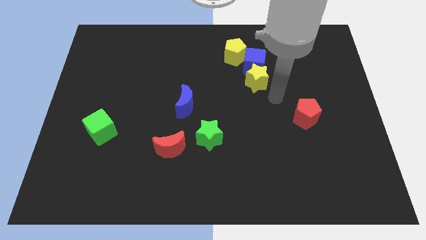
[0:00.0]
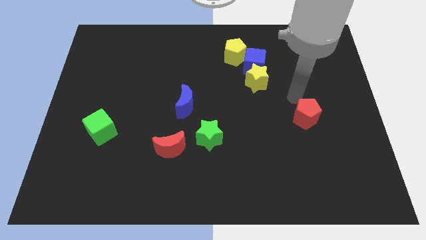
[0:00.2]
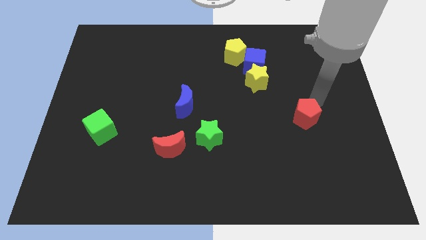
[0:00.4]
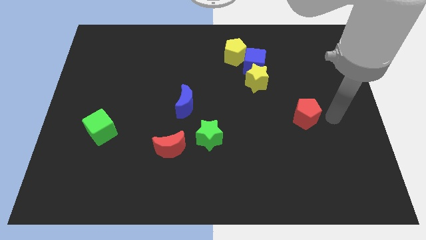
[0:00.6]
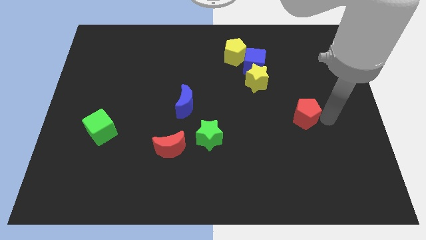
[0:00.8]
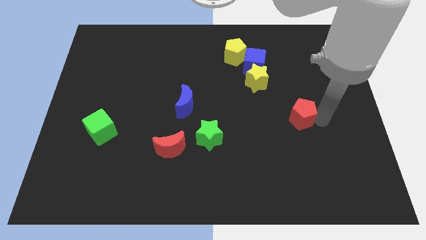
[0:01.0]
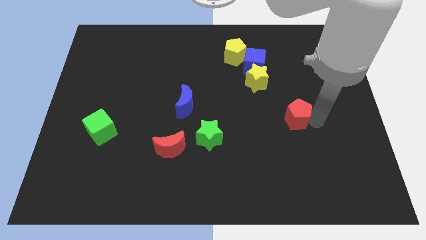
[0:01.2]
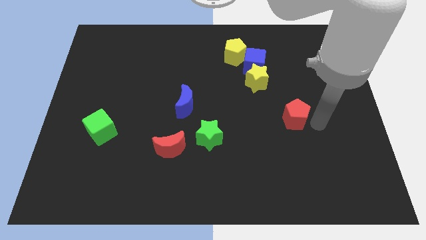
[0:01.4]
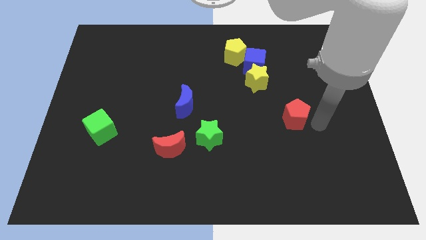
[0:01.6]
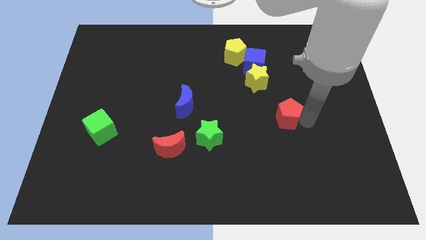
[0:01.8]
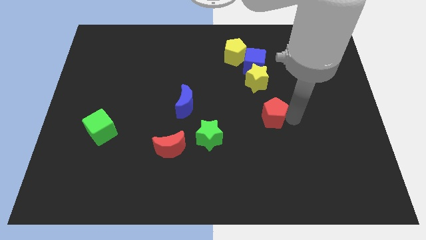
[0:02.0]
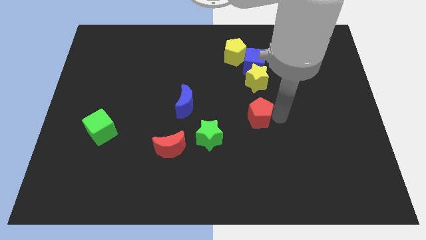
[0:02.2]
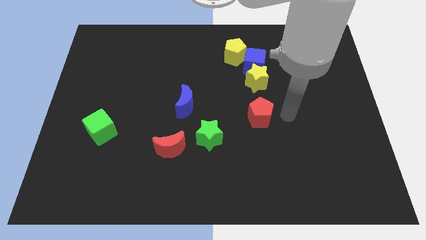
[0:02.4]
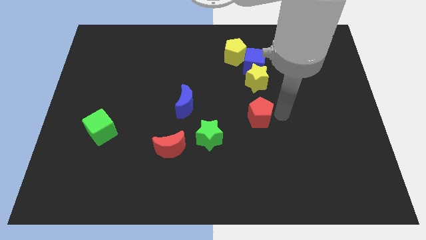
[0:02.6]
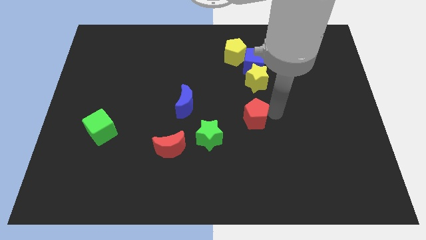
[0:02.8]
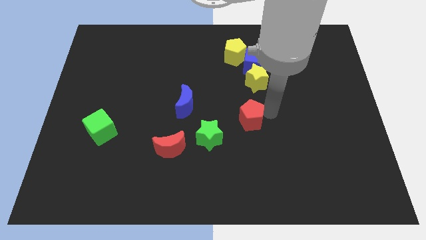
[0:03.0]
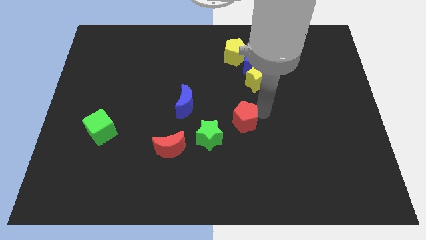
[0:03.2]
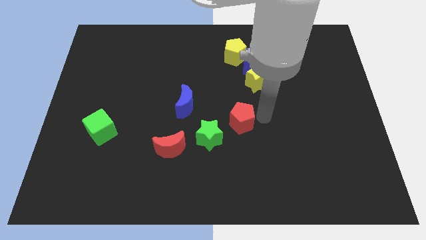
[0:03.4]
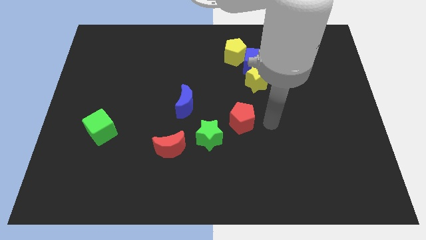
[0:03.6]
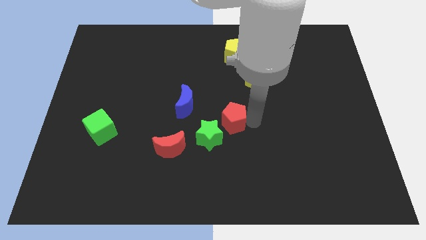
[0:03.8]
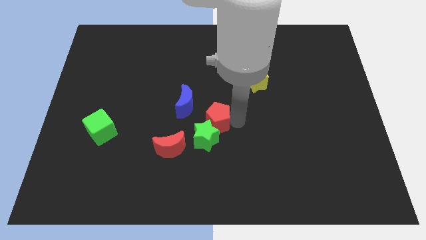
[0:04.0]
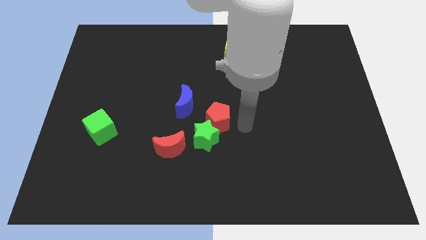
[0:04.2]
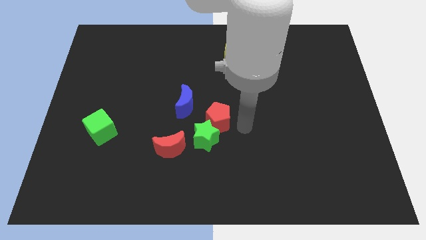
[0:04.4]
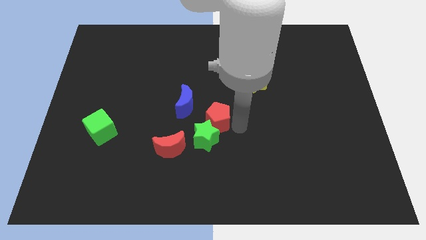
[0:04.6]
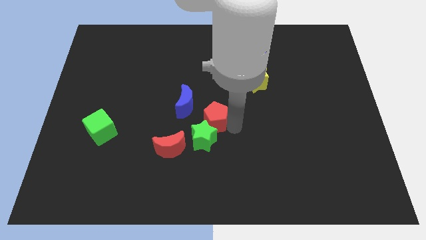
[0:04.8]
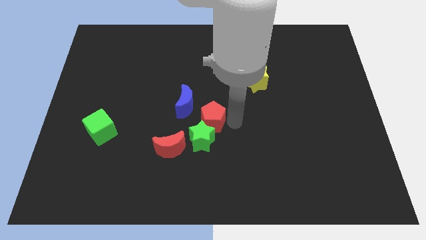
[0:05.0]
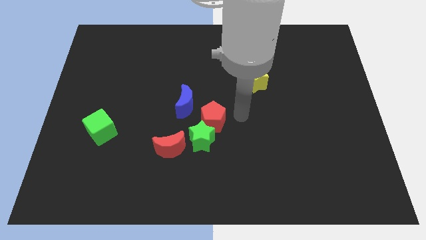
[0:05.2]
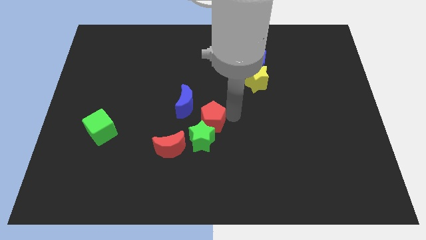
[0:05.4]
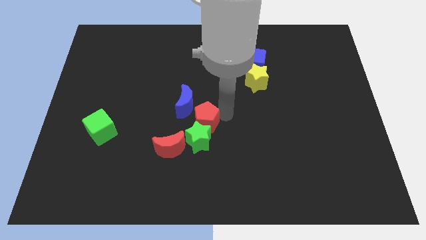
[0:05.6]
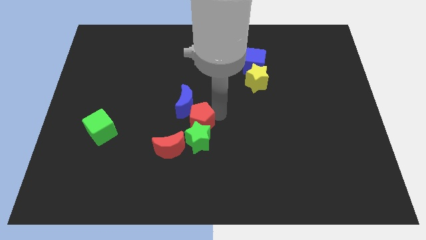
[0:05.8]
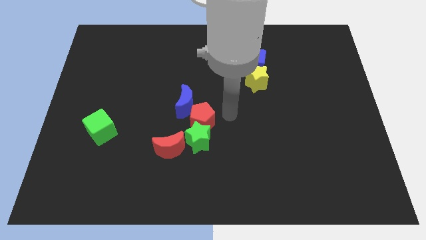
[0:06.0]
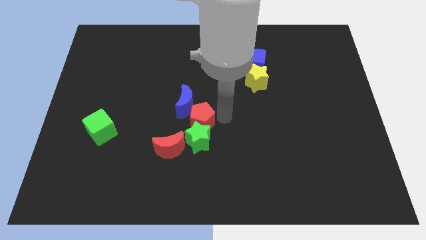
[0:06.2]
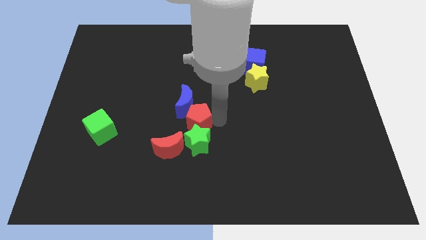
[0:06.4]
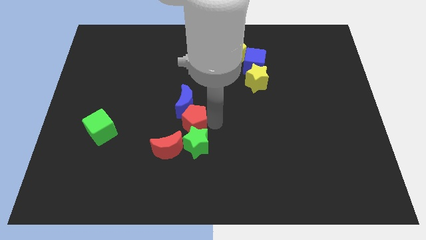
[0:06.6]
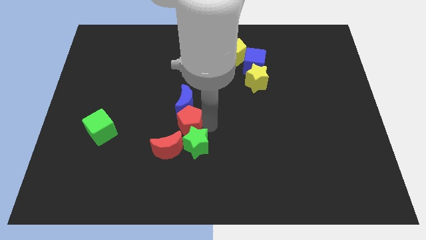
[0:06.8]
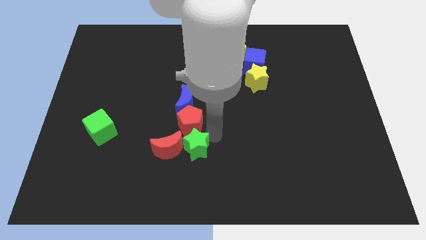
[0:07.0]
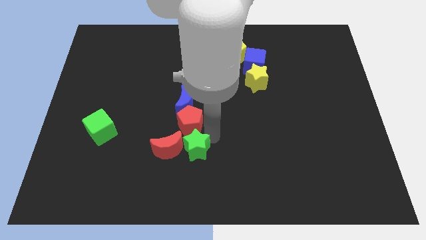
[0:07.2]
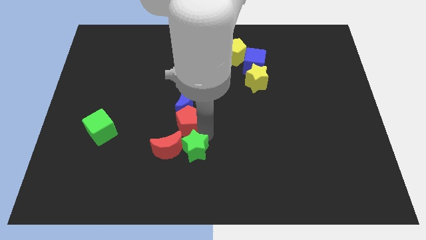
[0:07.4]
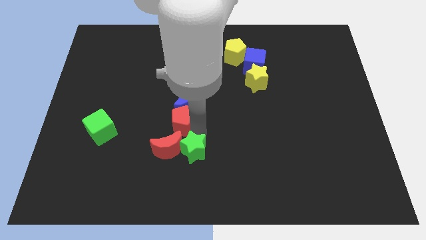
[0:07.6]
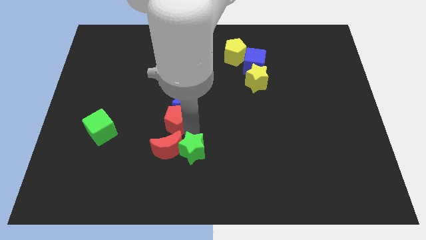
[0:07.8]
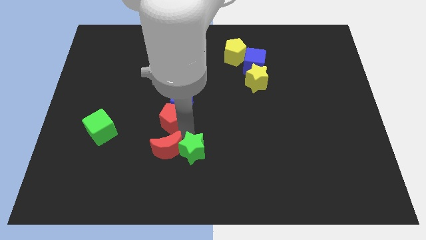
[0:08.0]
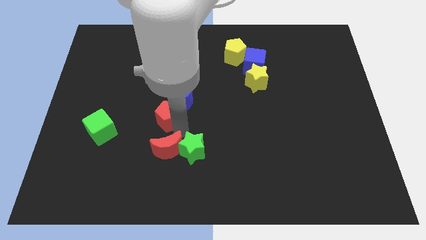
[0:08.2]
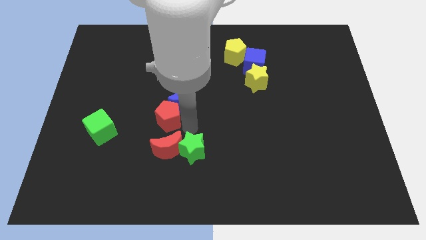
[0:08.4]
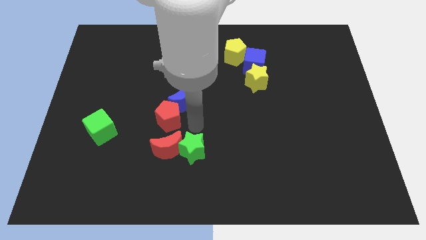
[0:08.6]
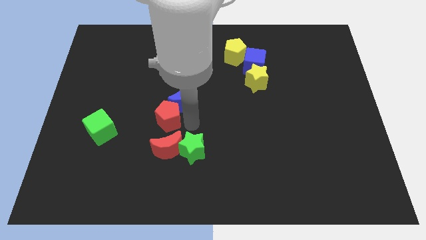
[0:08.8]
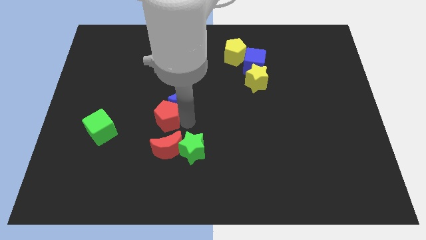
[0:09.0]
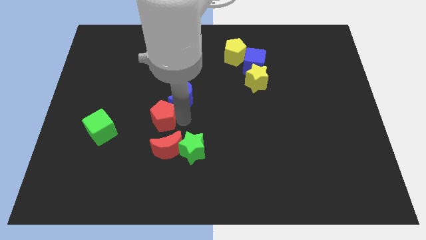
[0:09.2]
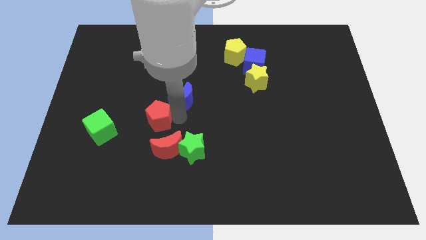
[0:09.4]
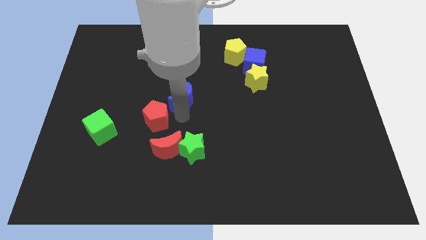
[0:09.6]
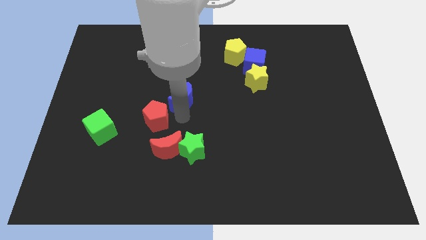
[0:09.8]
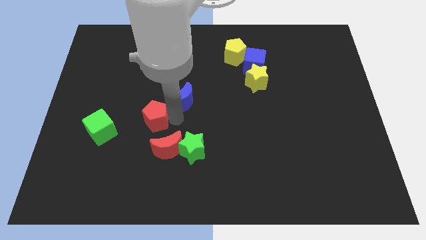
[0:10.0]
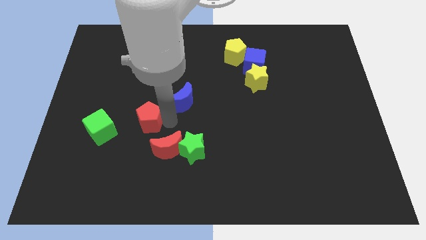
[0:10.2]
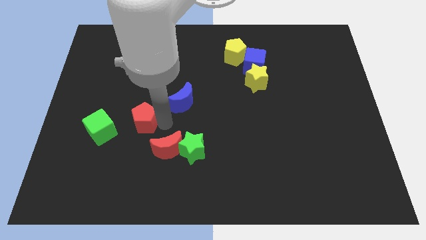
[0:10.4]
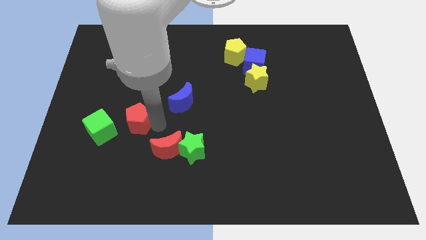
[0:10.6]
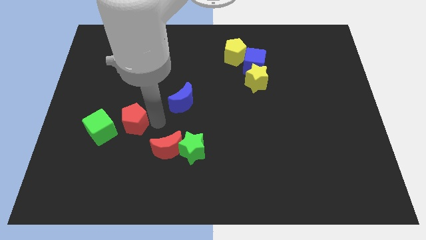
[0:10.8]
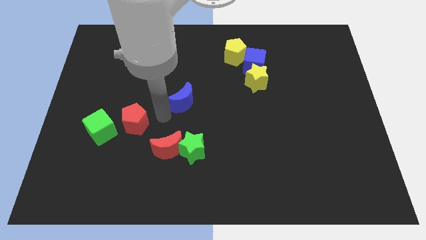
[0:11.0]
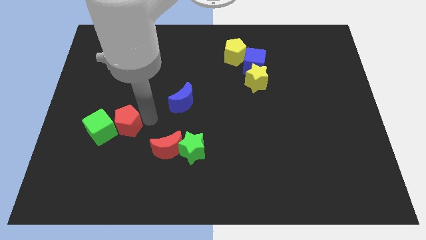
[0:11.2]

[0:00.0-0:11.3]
put the red pentagon towards the green cube

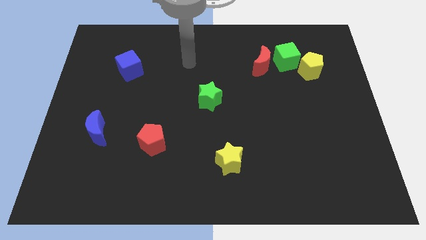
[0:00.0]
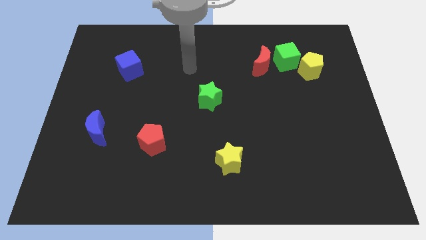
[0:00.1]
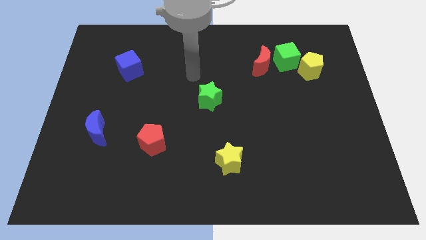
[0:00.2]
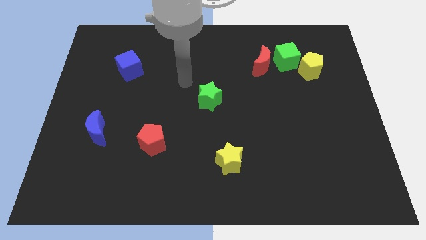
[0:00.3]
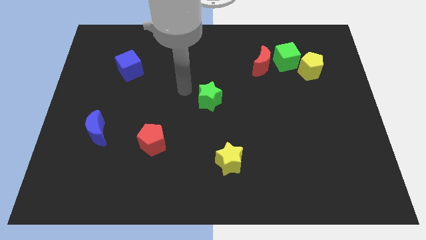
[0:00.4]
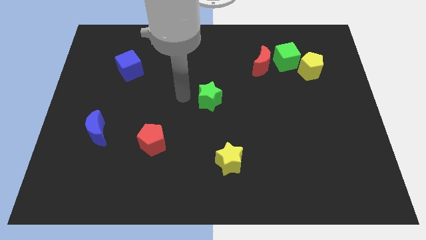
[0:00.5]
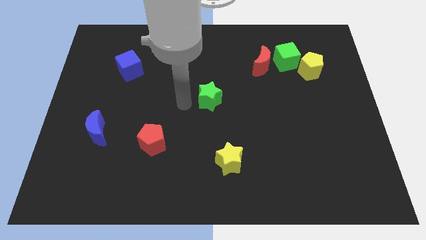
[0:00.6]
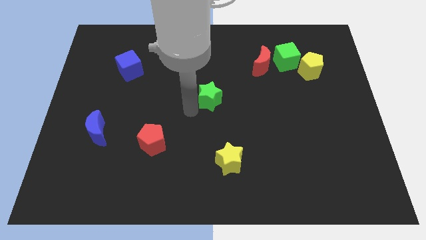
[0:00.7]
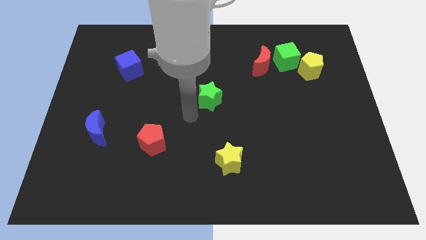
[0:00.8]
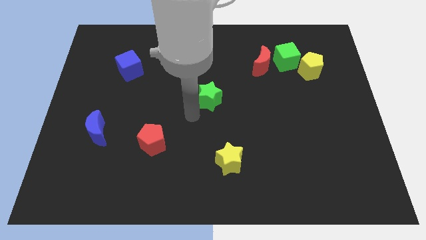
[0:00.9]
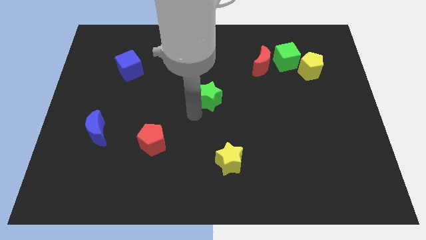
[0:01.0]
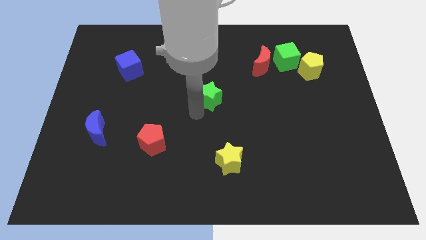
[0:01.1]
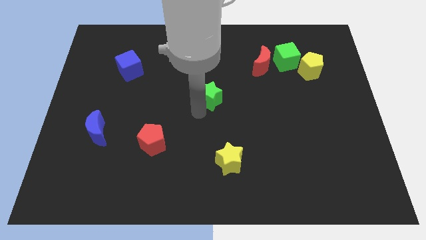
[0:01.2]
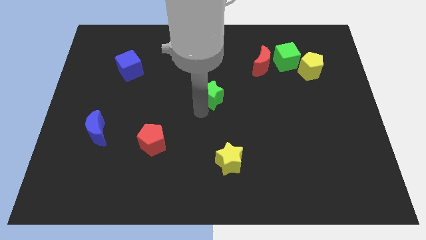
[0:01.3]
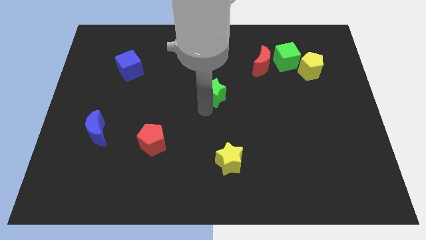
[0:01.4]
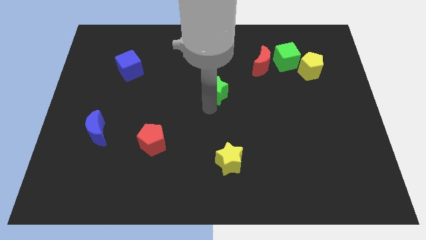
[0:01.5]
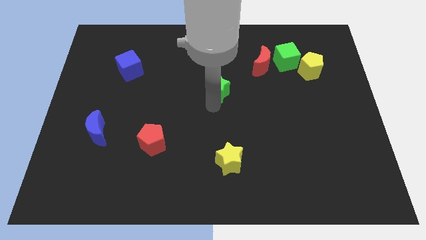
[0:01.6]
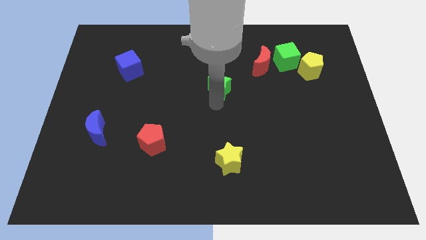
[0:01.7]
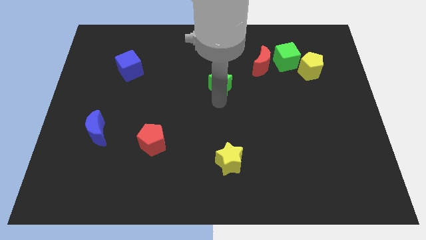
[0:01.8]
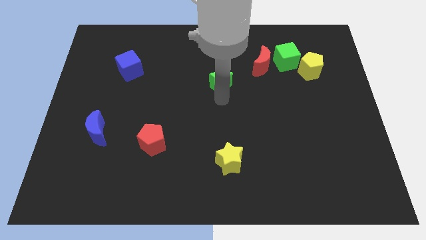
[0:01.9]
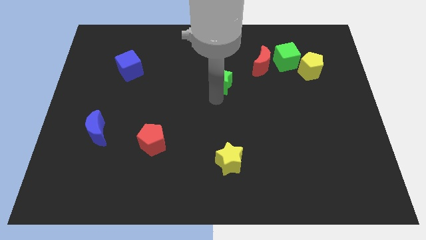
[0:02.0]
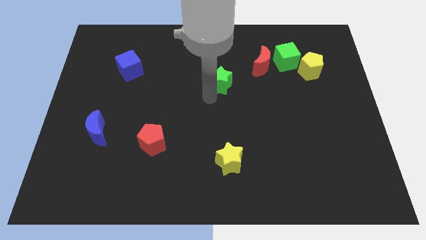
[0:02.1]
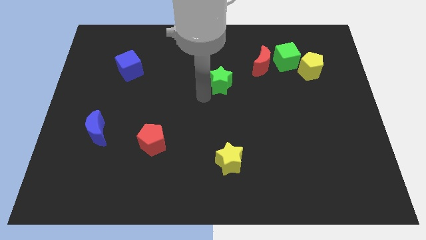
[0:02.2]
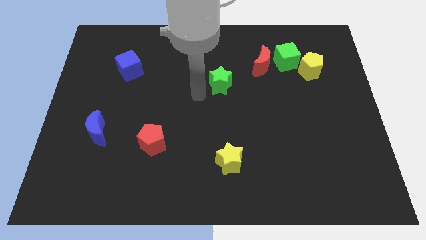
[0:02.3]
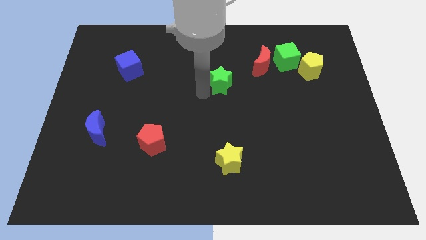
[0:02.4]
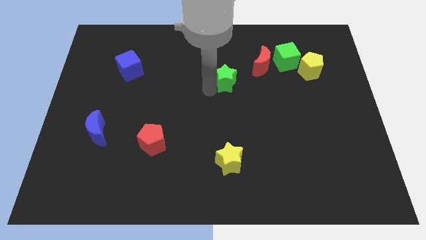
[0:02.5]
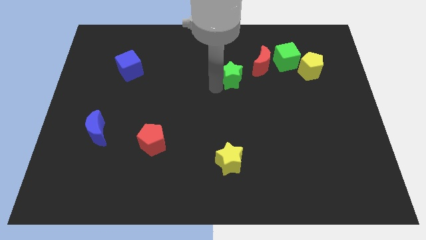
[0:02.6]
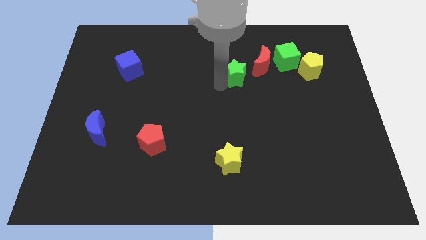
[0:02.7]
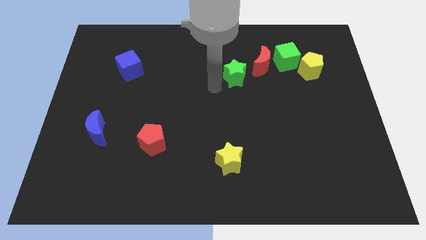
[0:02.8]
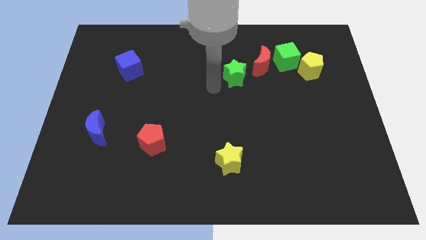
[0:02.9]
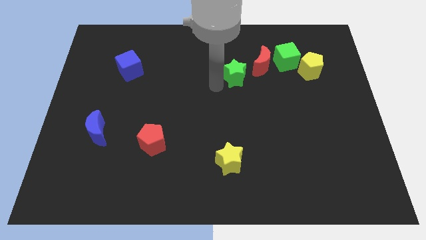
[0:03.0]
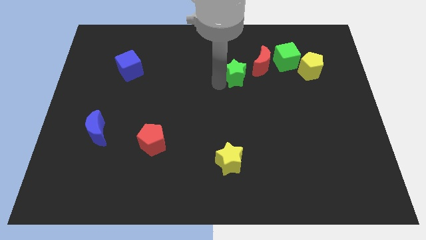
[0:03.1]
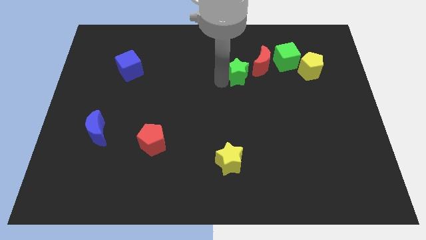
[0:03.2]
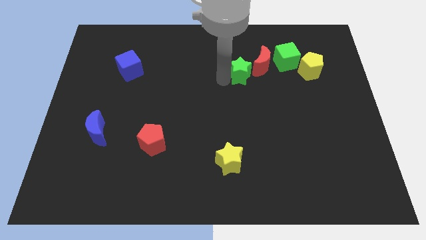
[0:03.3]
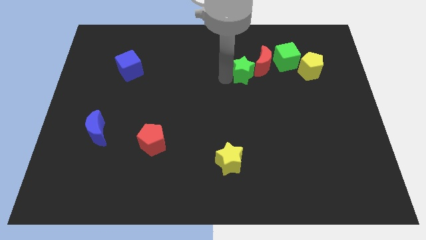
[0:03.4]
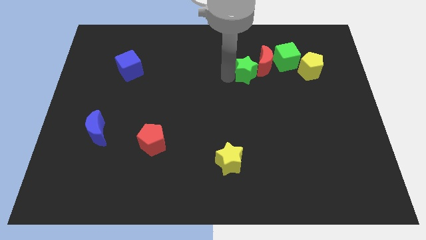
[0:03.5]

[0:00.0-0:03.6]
move the green star towards the red moon
